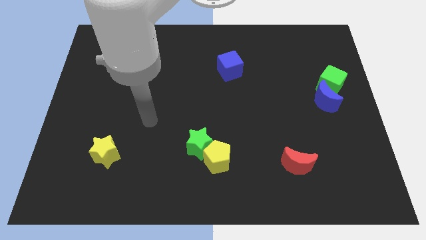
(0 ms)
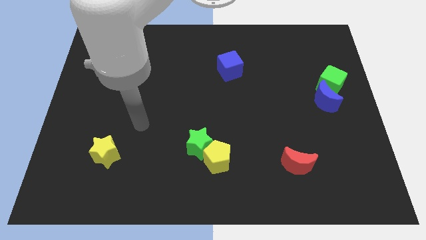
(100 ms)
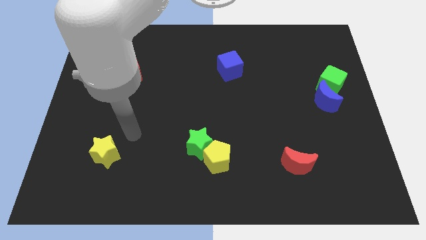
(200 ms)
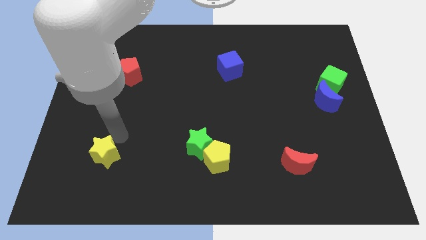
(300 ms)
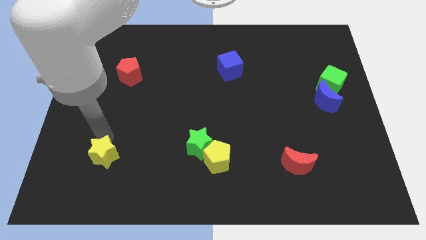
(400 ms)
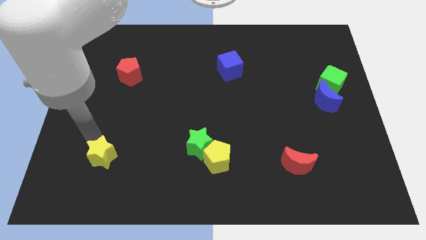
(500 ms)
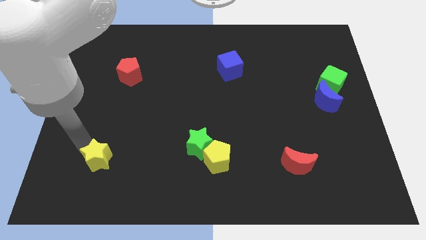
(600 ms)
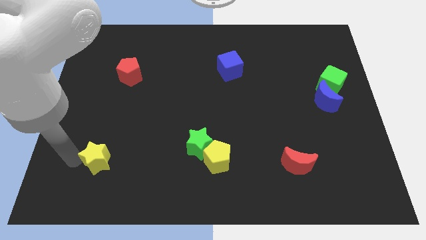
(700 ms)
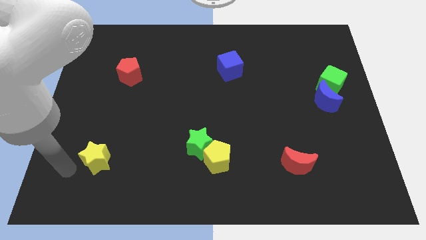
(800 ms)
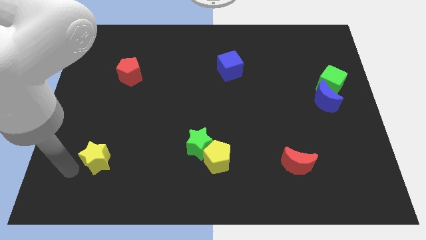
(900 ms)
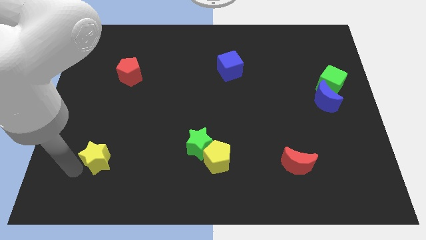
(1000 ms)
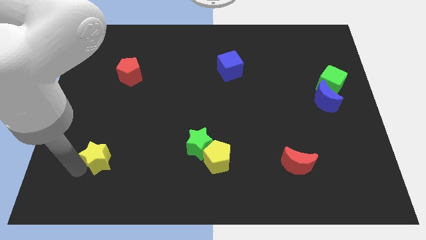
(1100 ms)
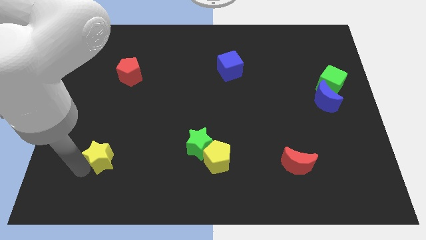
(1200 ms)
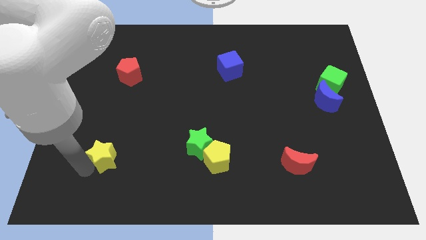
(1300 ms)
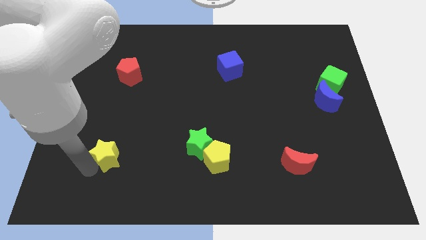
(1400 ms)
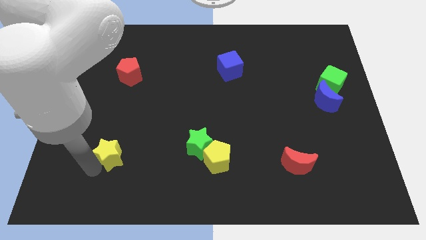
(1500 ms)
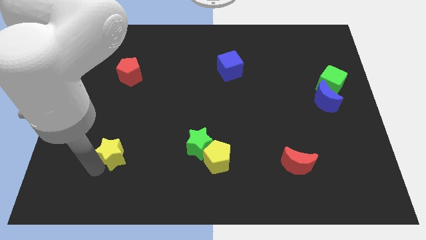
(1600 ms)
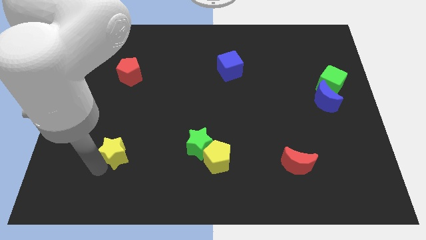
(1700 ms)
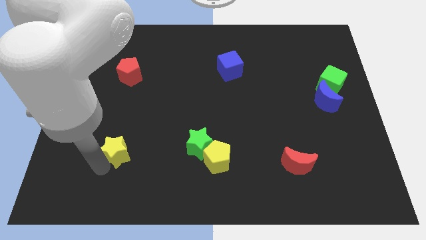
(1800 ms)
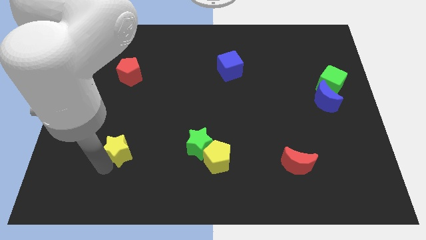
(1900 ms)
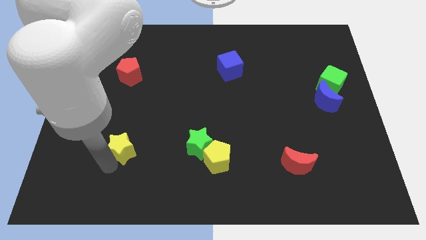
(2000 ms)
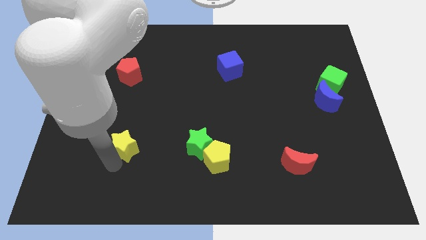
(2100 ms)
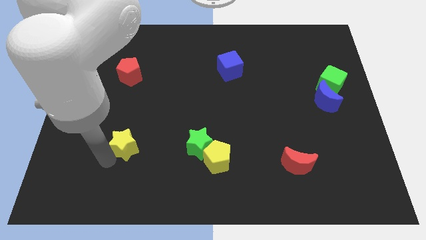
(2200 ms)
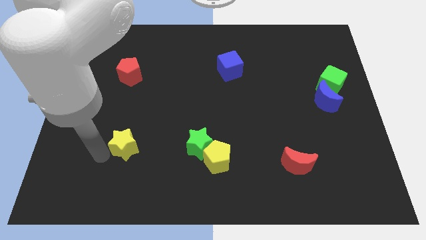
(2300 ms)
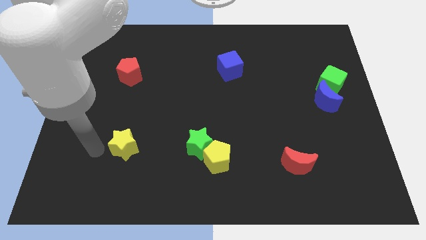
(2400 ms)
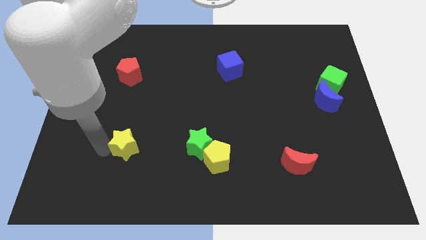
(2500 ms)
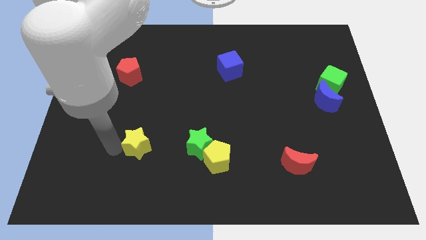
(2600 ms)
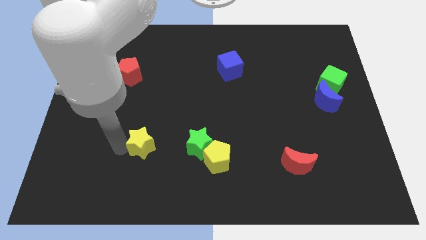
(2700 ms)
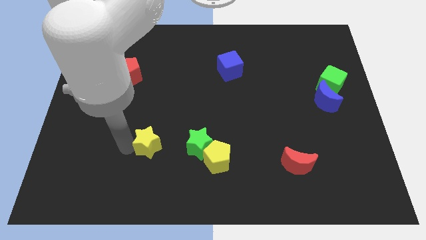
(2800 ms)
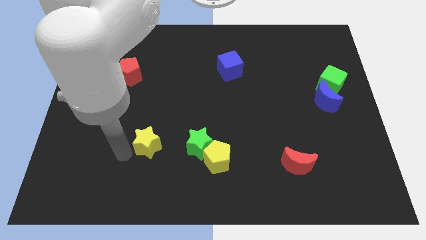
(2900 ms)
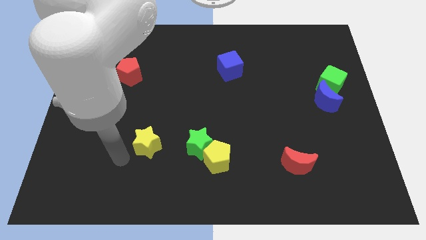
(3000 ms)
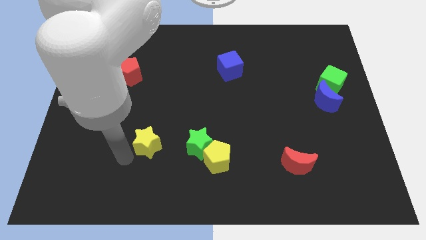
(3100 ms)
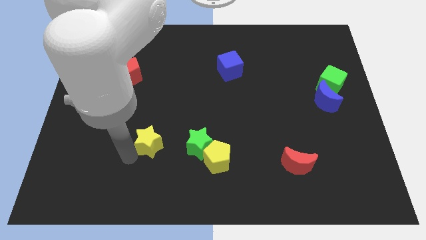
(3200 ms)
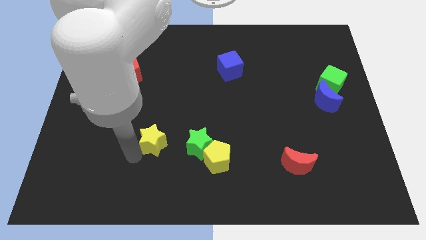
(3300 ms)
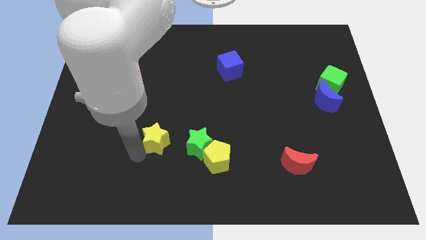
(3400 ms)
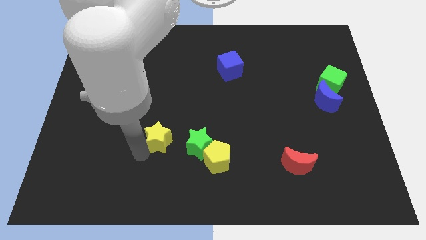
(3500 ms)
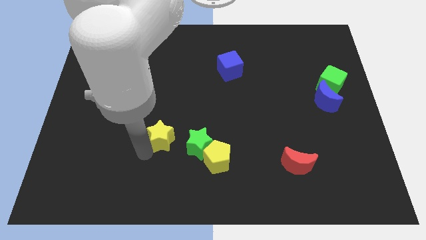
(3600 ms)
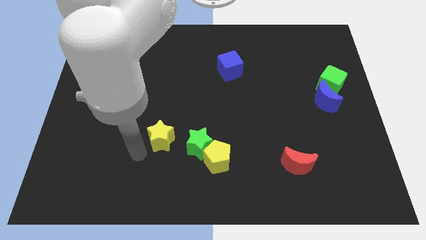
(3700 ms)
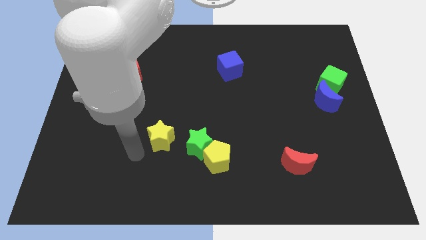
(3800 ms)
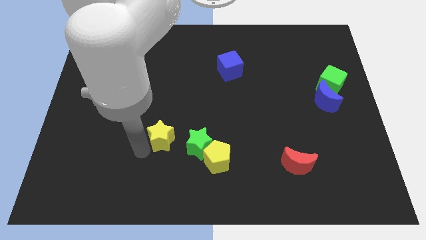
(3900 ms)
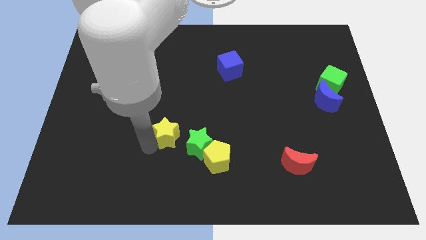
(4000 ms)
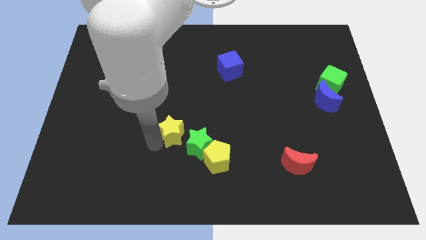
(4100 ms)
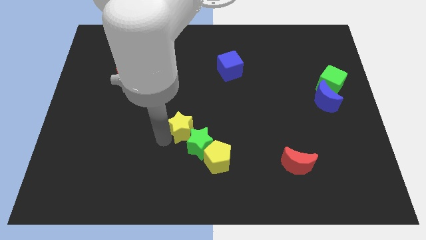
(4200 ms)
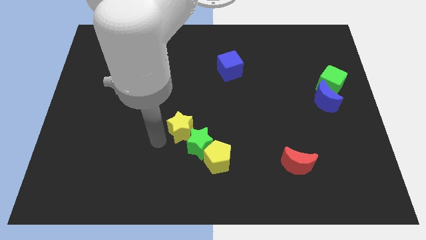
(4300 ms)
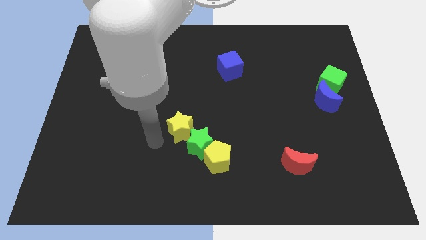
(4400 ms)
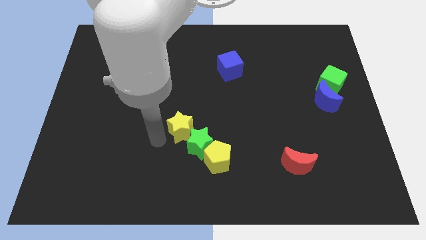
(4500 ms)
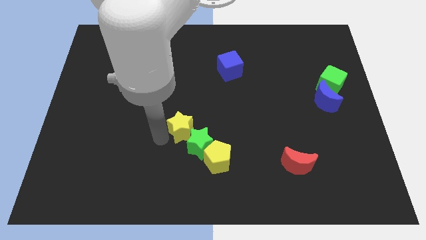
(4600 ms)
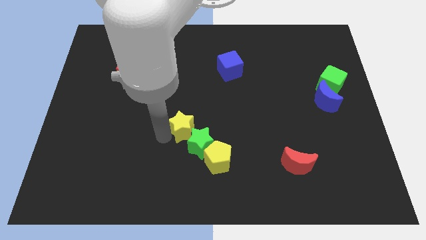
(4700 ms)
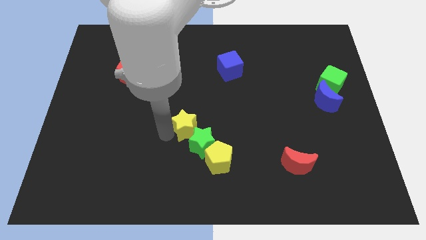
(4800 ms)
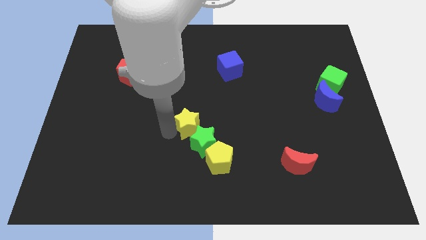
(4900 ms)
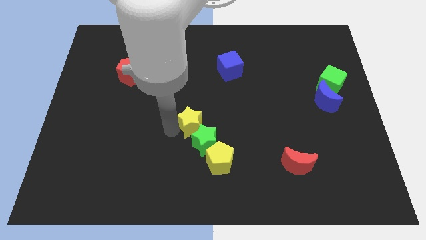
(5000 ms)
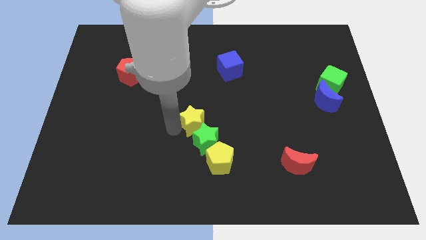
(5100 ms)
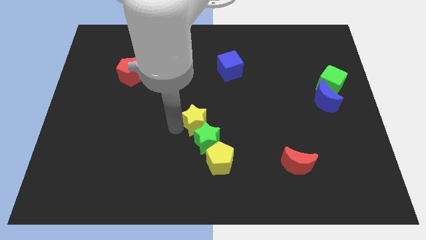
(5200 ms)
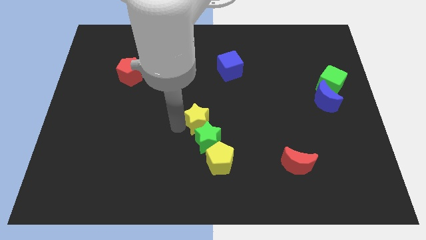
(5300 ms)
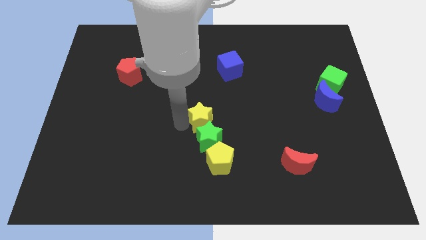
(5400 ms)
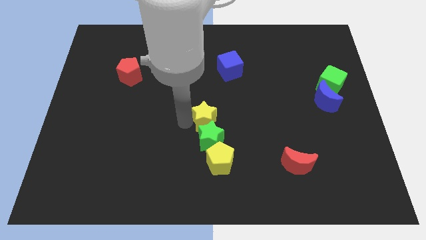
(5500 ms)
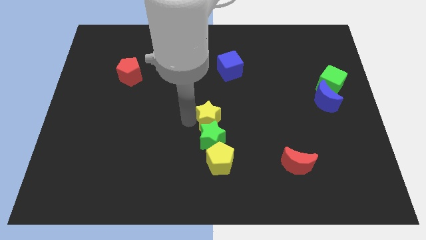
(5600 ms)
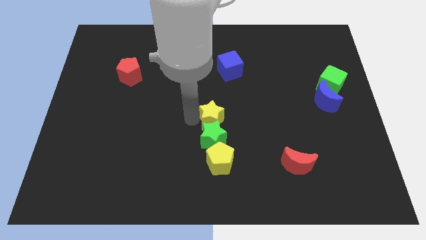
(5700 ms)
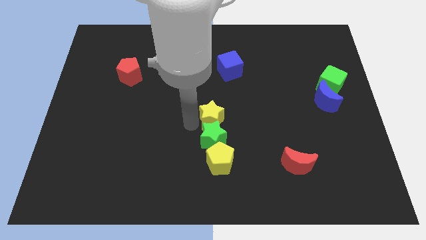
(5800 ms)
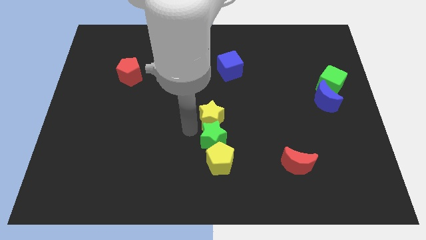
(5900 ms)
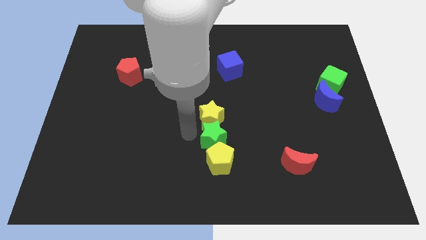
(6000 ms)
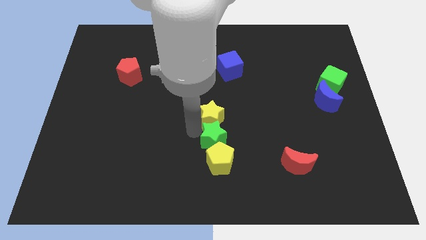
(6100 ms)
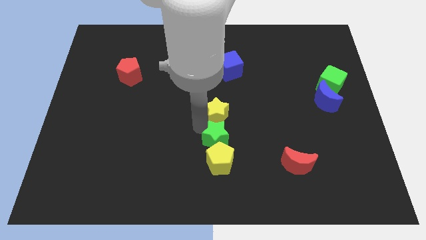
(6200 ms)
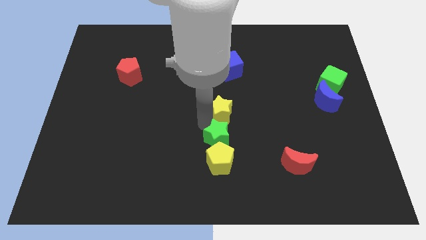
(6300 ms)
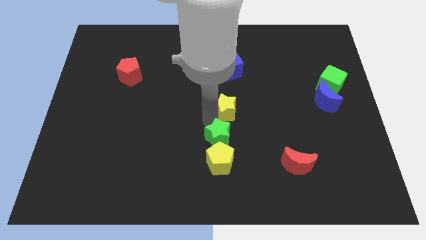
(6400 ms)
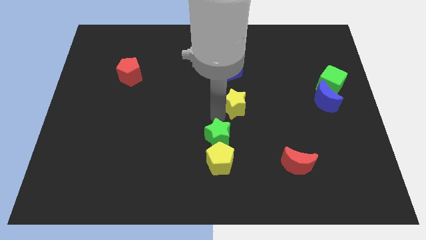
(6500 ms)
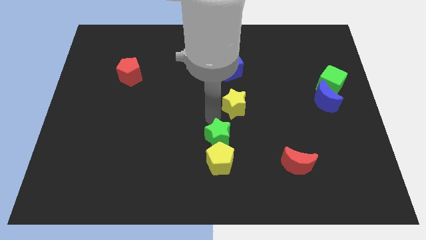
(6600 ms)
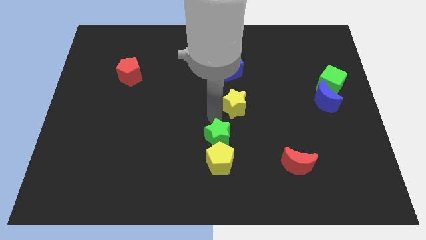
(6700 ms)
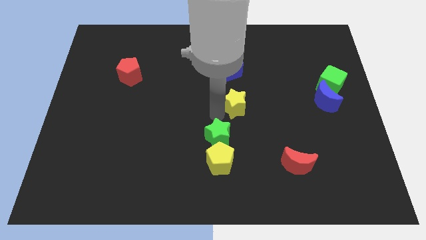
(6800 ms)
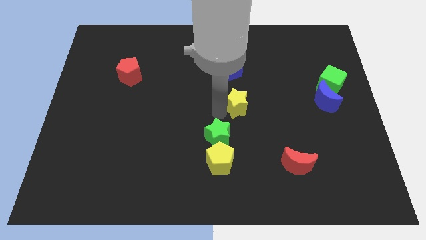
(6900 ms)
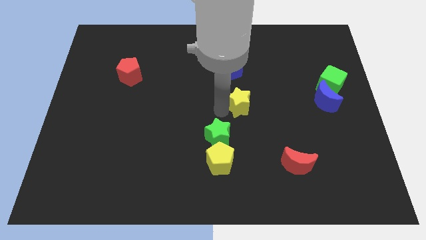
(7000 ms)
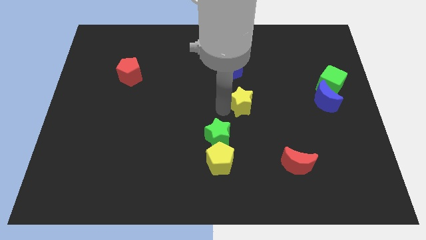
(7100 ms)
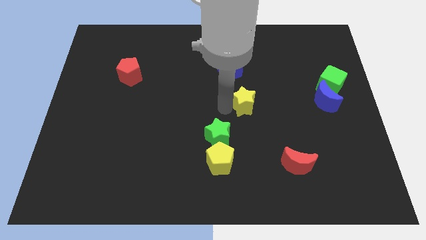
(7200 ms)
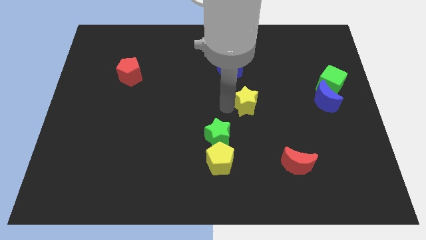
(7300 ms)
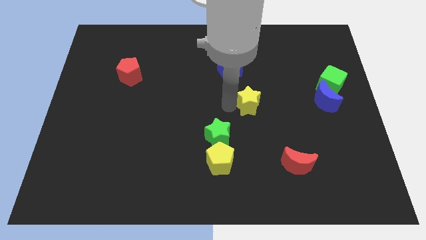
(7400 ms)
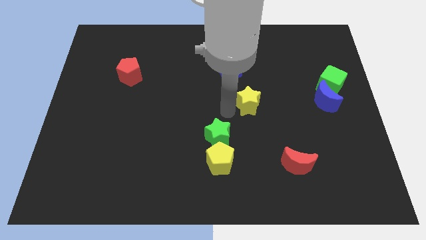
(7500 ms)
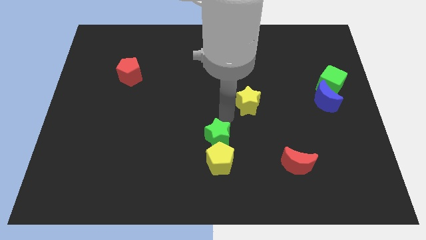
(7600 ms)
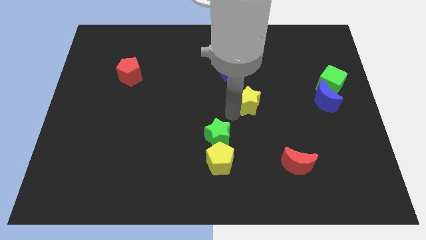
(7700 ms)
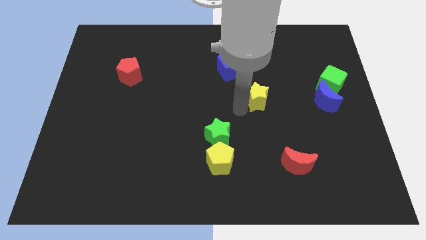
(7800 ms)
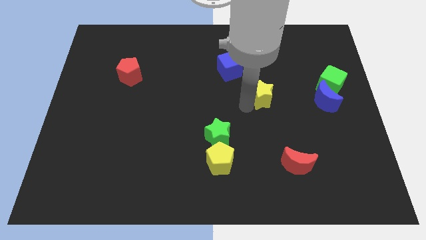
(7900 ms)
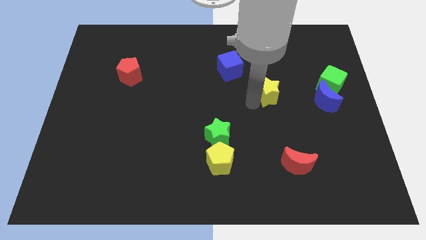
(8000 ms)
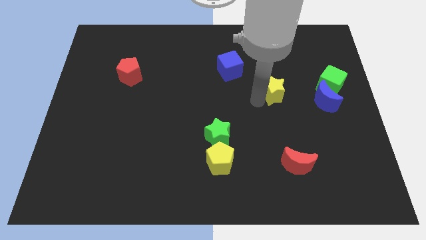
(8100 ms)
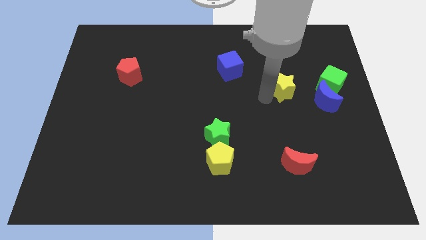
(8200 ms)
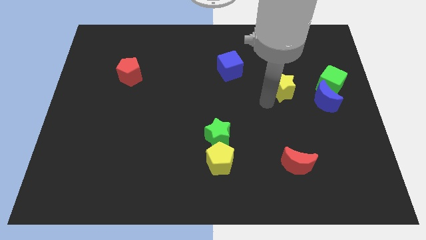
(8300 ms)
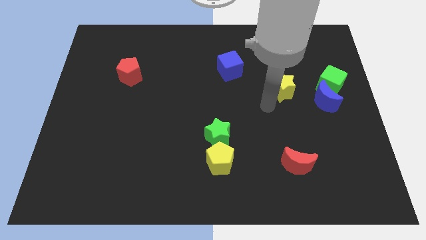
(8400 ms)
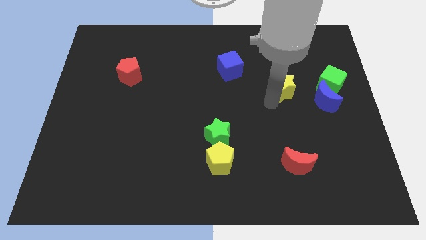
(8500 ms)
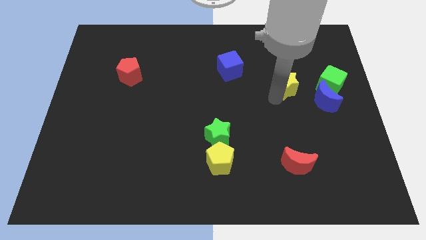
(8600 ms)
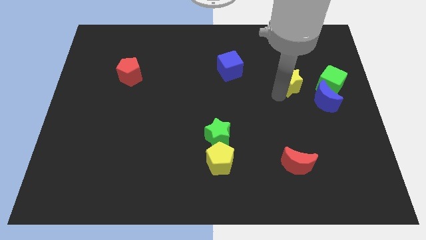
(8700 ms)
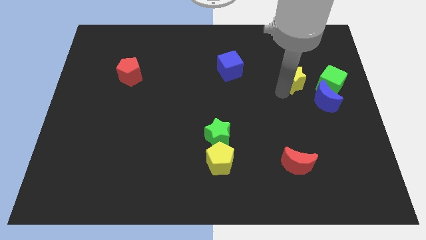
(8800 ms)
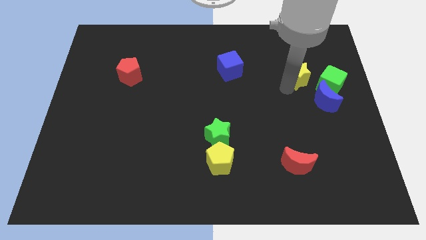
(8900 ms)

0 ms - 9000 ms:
move the yellow star diagonally up and to the left of the green cube
